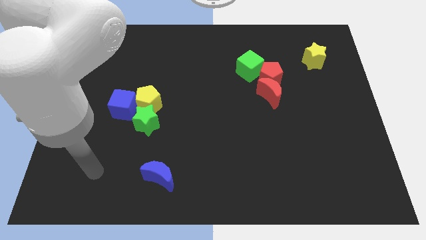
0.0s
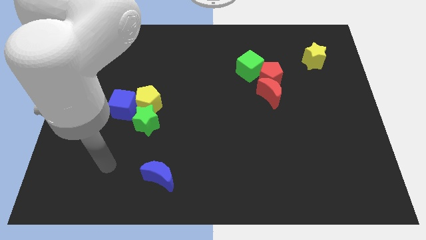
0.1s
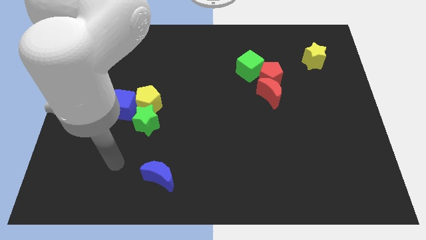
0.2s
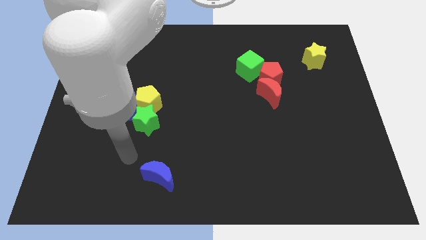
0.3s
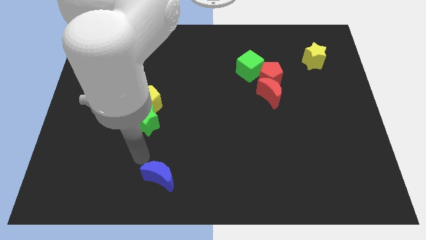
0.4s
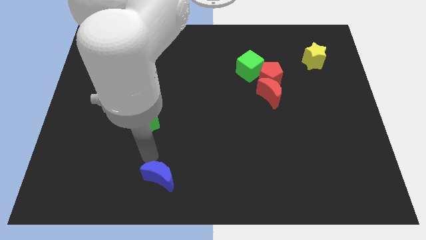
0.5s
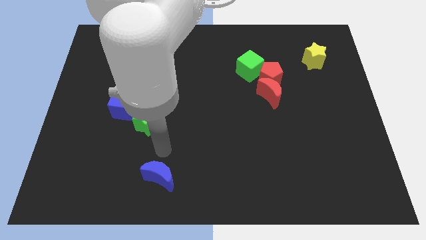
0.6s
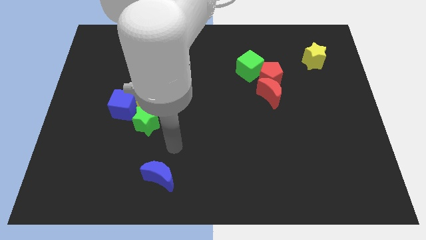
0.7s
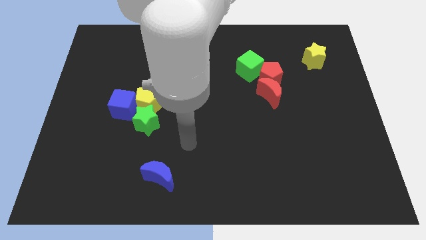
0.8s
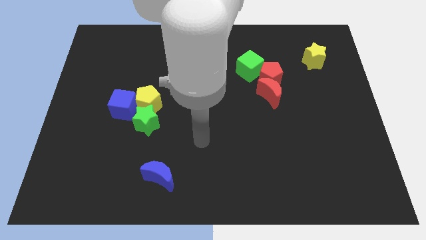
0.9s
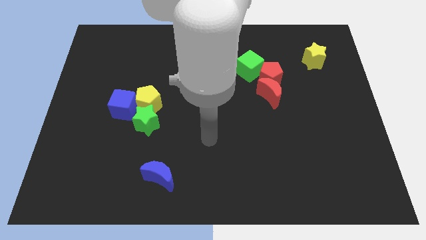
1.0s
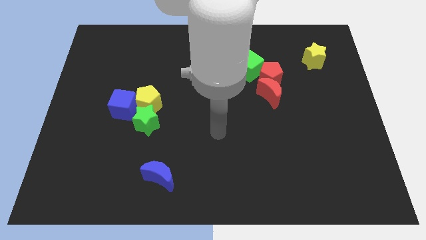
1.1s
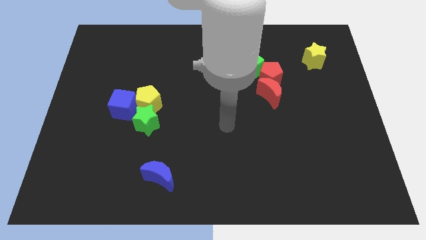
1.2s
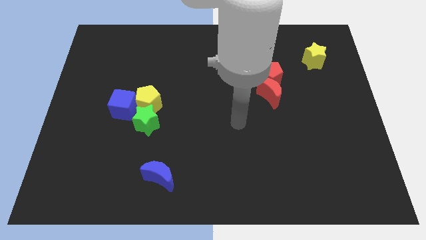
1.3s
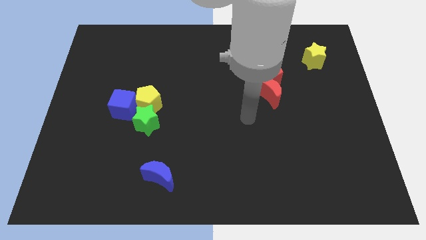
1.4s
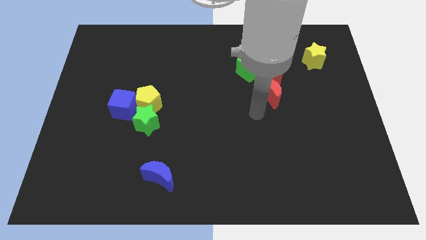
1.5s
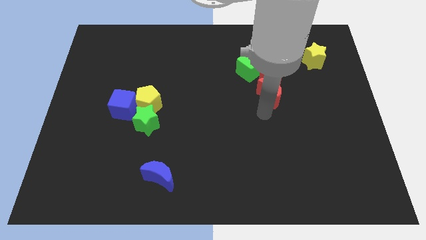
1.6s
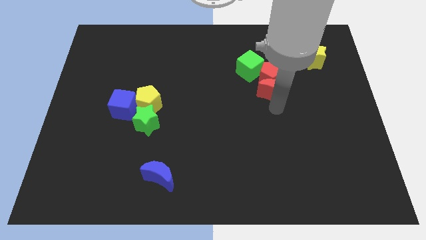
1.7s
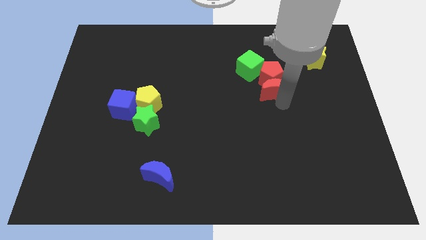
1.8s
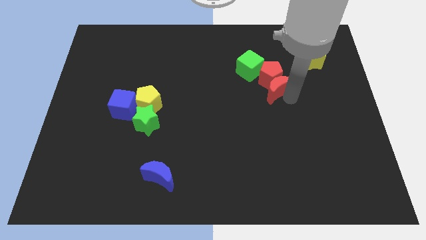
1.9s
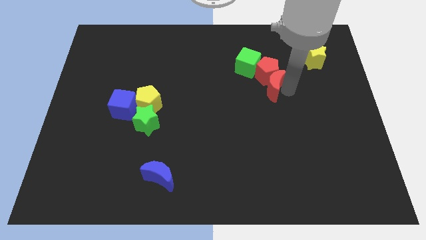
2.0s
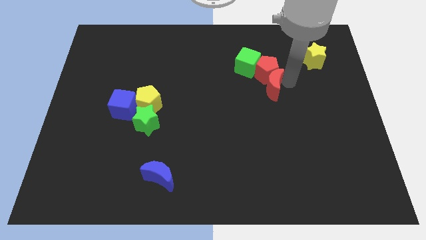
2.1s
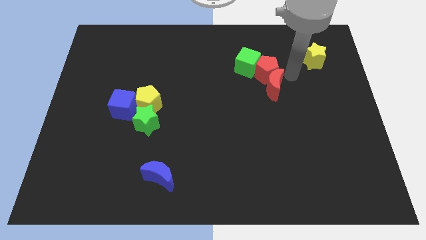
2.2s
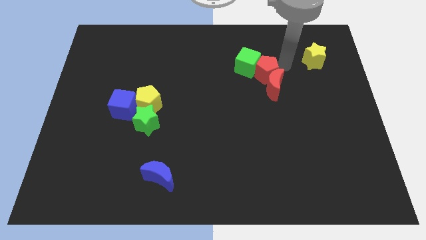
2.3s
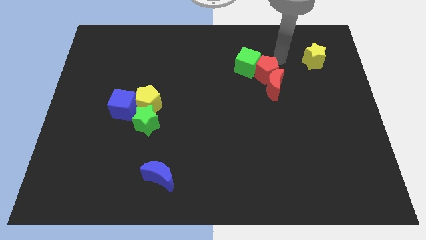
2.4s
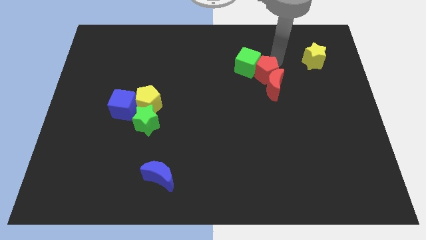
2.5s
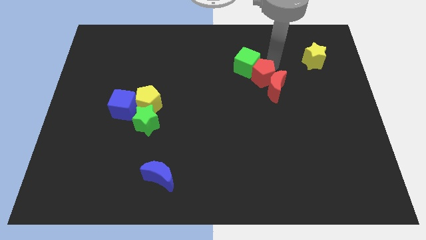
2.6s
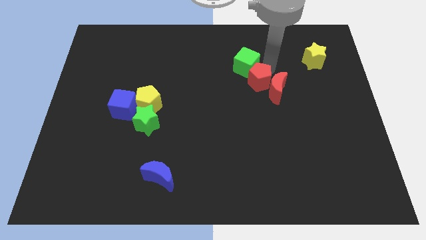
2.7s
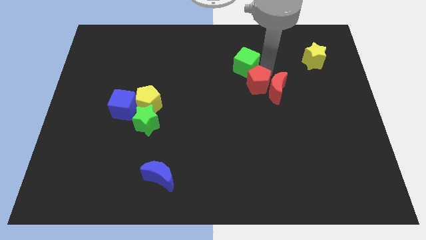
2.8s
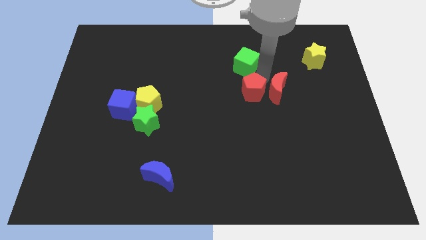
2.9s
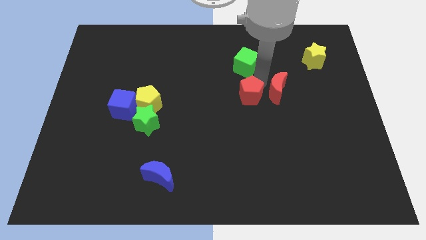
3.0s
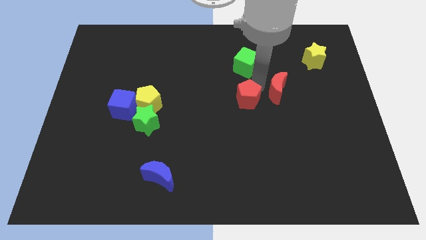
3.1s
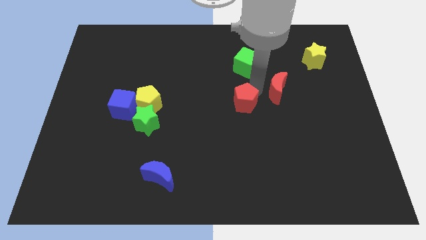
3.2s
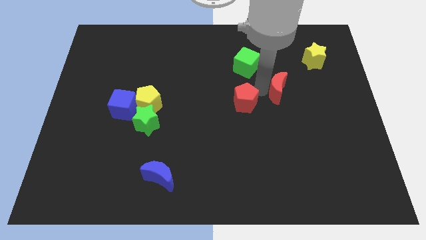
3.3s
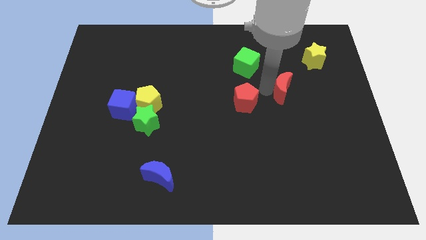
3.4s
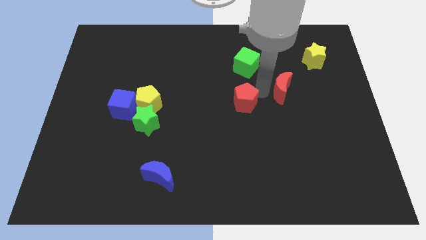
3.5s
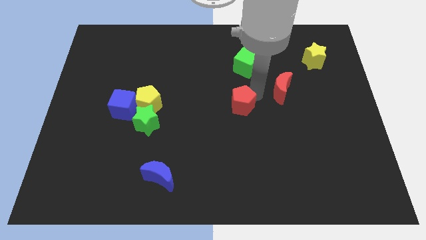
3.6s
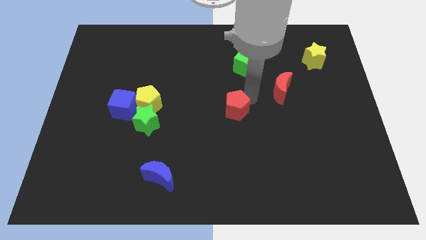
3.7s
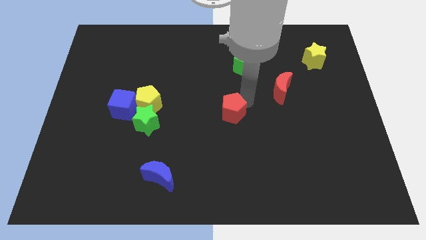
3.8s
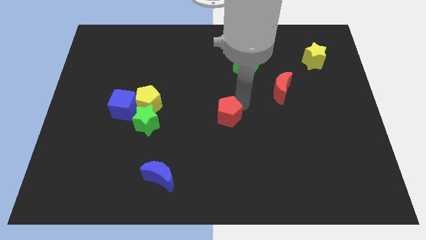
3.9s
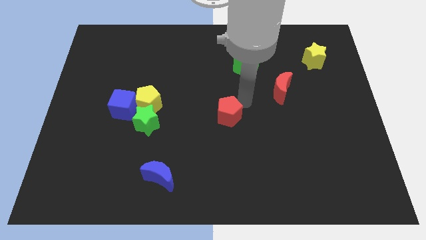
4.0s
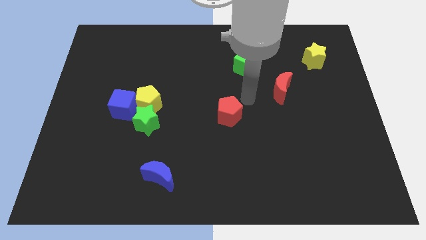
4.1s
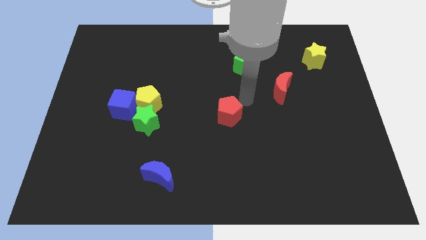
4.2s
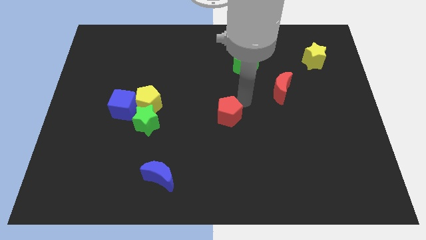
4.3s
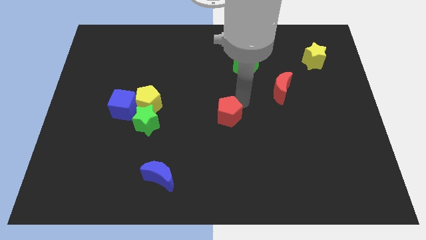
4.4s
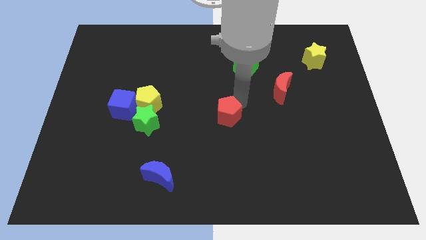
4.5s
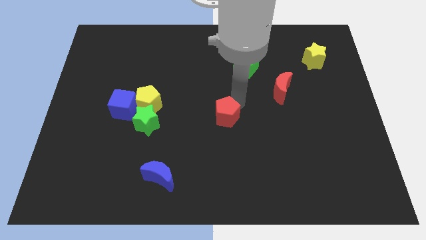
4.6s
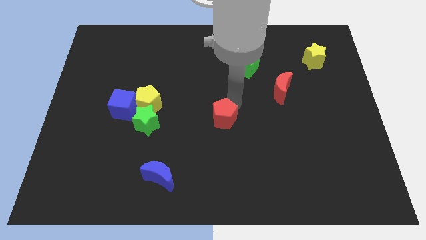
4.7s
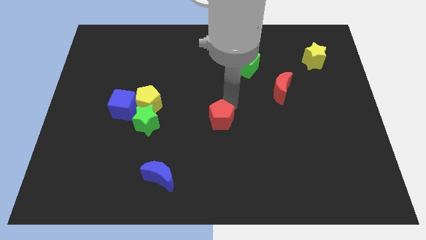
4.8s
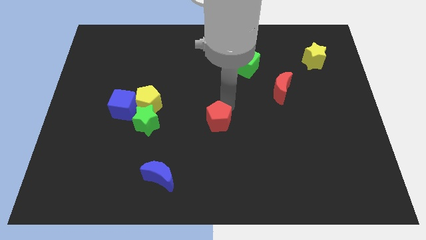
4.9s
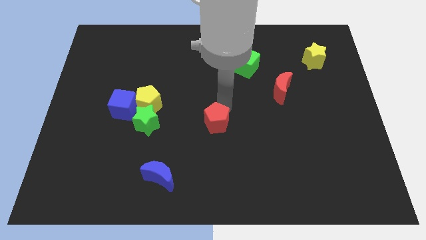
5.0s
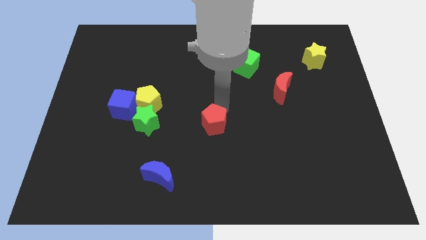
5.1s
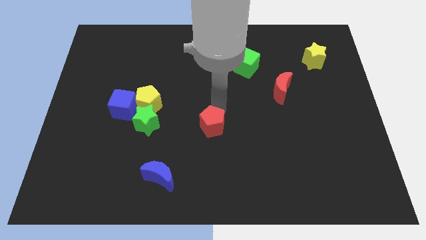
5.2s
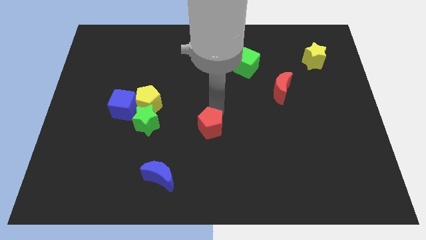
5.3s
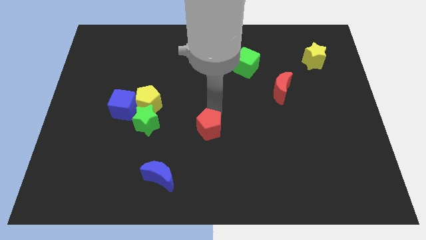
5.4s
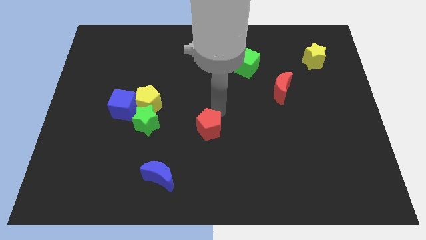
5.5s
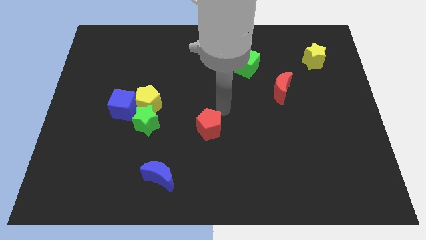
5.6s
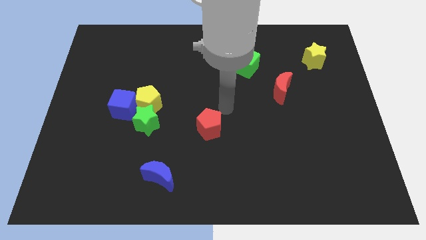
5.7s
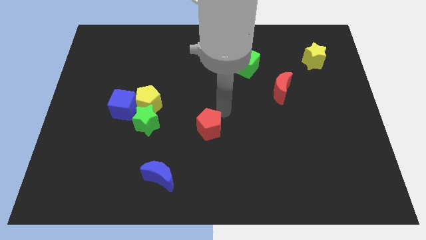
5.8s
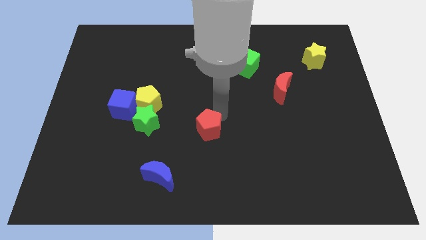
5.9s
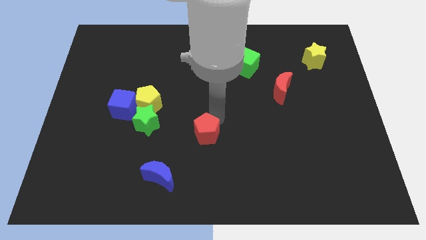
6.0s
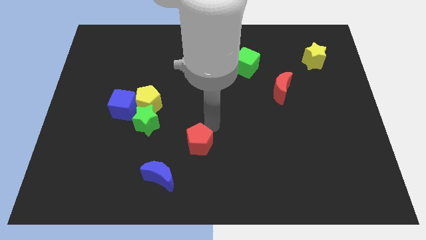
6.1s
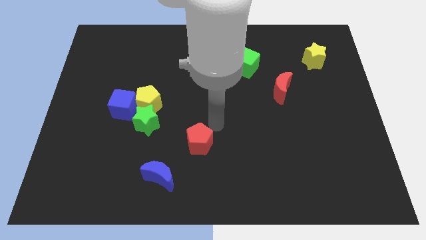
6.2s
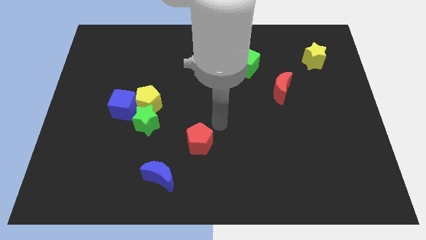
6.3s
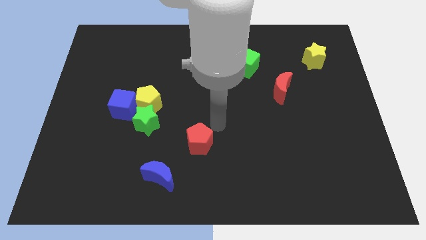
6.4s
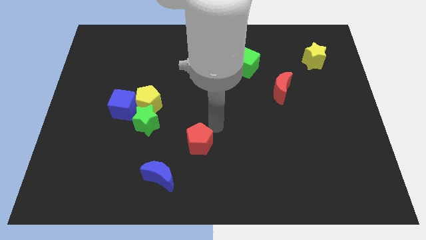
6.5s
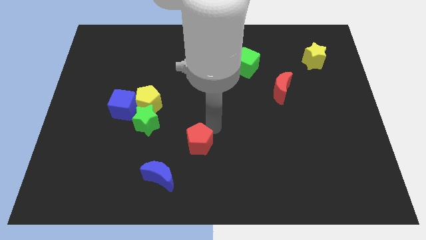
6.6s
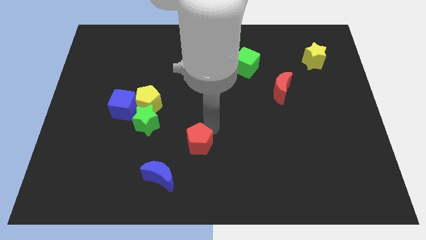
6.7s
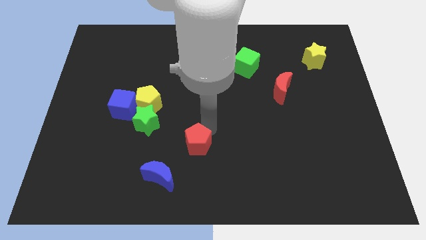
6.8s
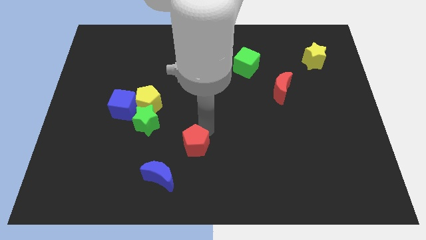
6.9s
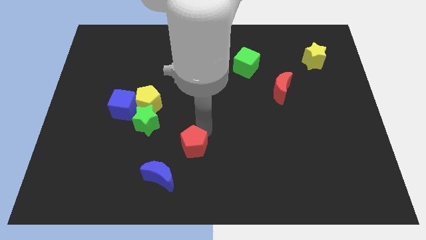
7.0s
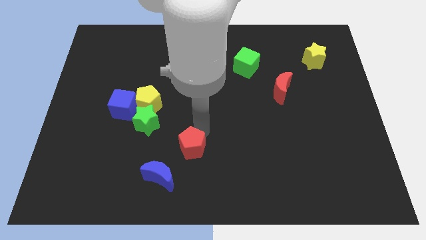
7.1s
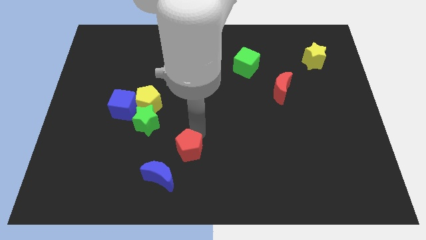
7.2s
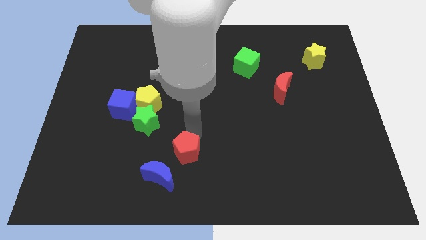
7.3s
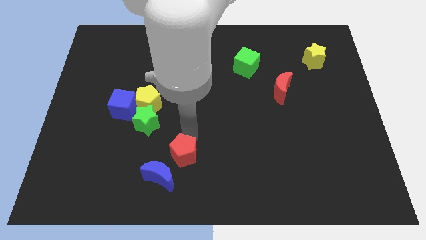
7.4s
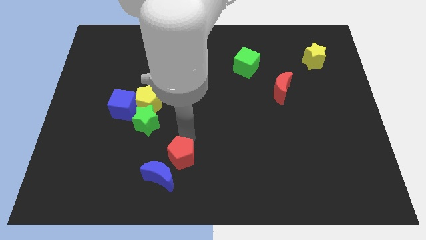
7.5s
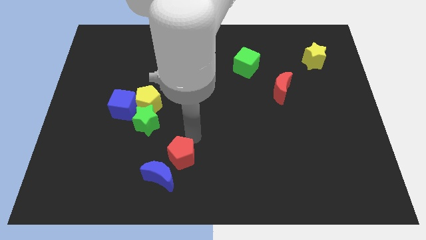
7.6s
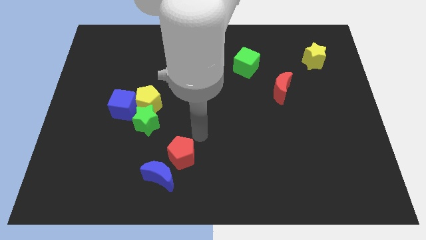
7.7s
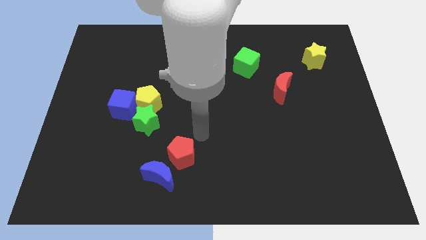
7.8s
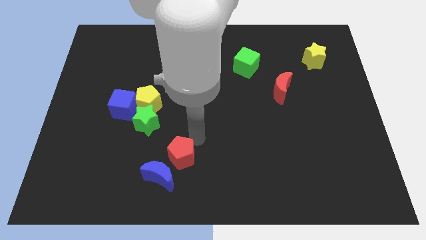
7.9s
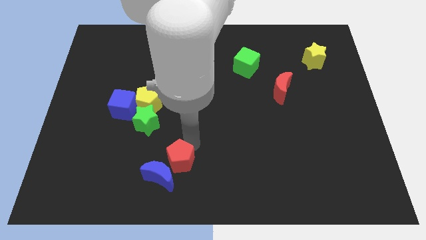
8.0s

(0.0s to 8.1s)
push the red pentagon next to the blue moon
